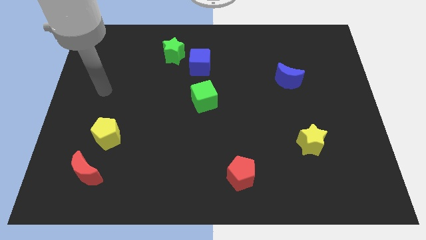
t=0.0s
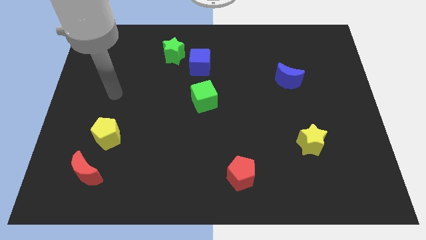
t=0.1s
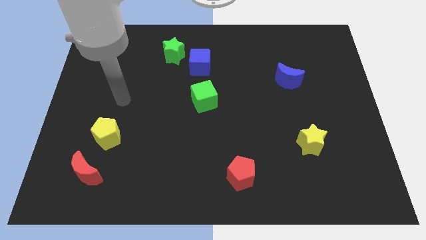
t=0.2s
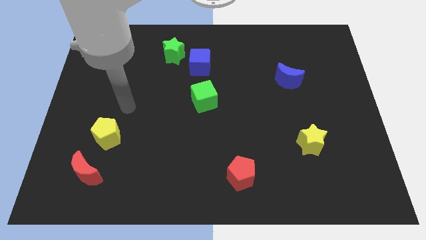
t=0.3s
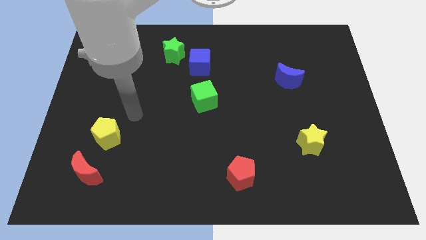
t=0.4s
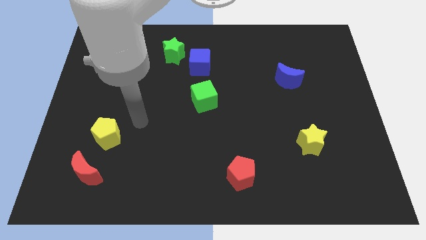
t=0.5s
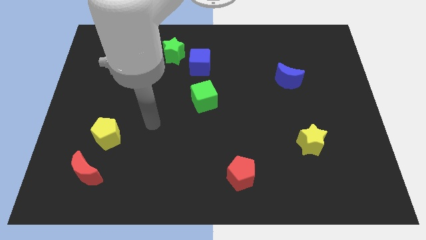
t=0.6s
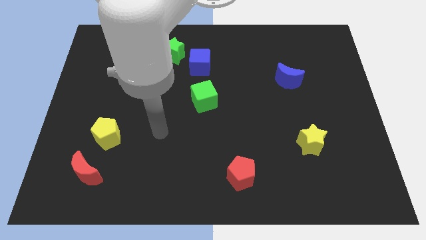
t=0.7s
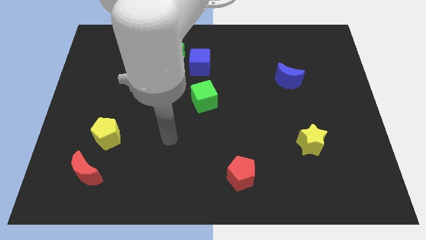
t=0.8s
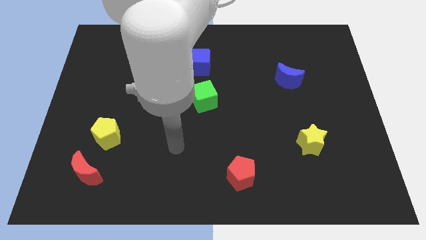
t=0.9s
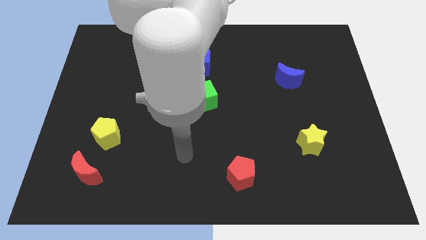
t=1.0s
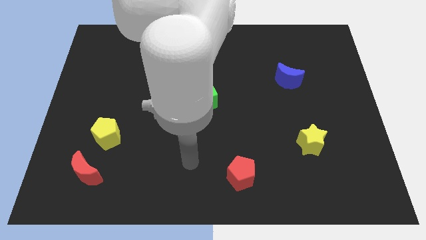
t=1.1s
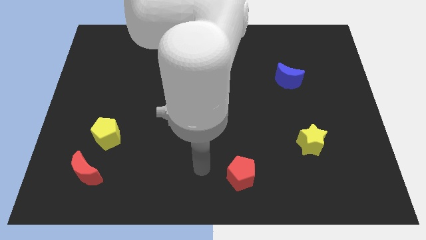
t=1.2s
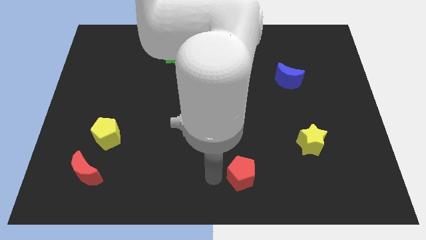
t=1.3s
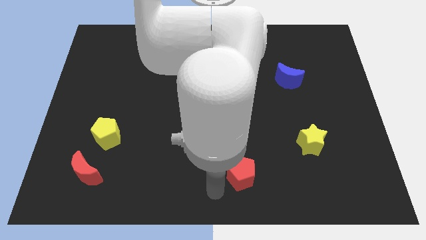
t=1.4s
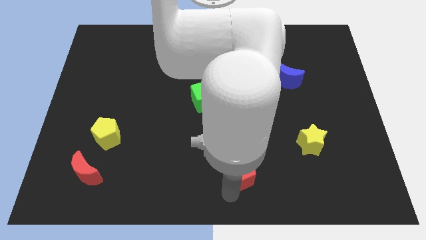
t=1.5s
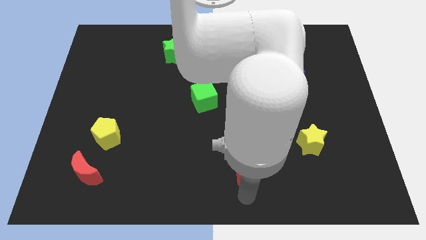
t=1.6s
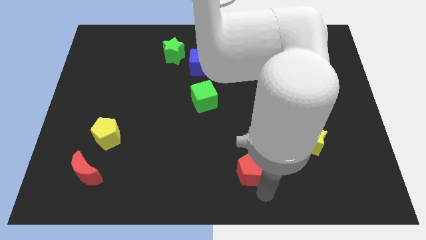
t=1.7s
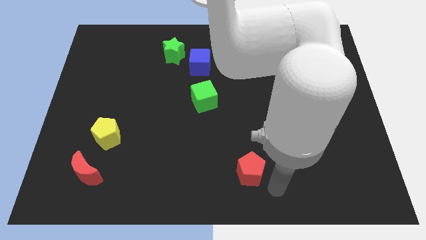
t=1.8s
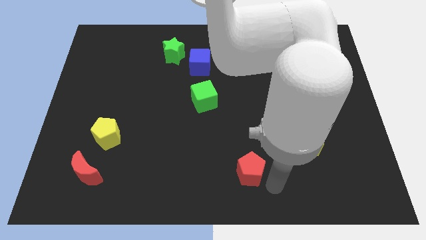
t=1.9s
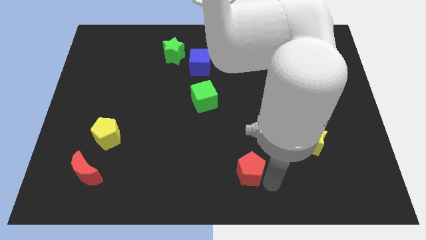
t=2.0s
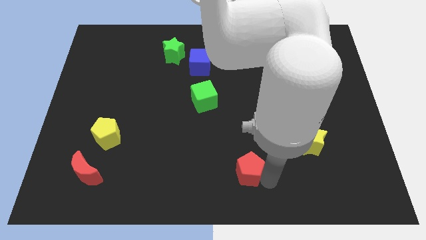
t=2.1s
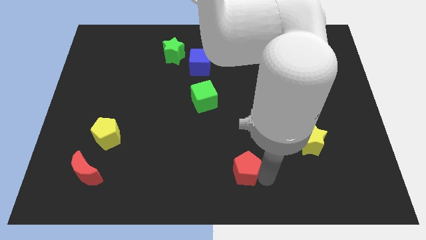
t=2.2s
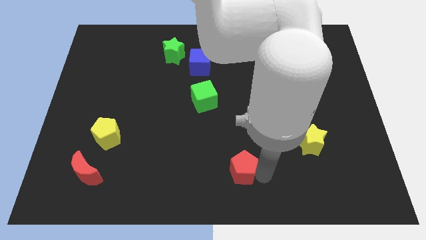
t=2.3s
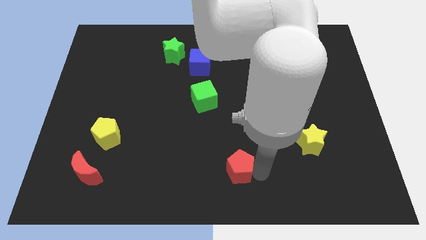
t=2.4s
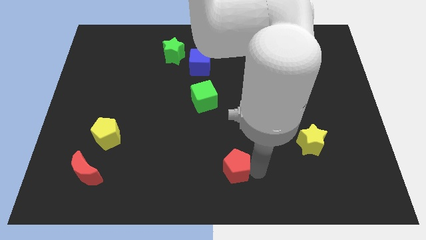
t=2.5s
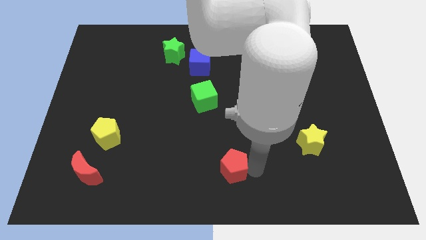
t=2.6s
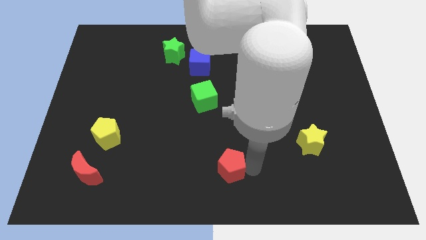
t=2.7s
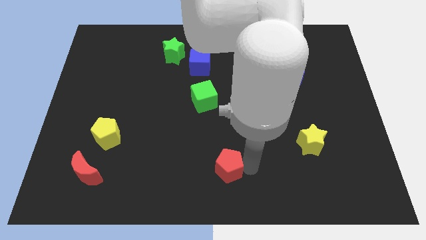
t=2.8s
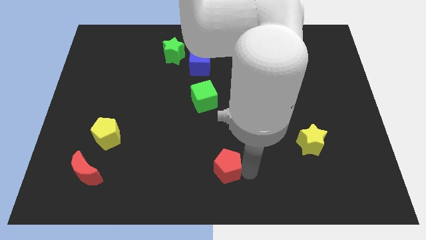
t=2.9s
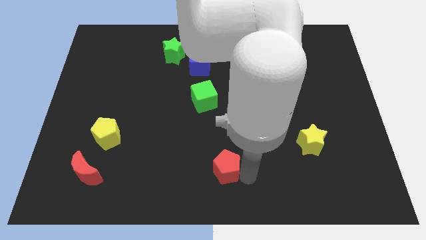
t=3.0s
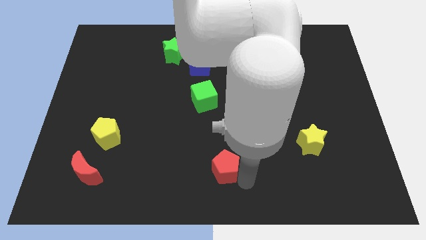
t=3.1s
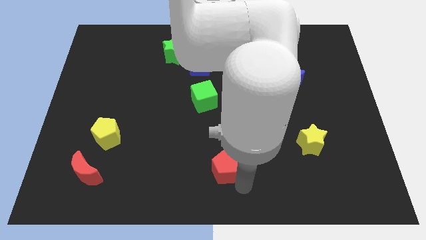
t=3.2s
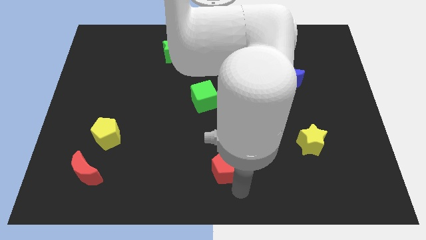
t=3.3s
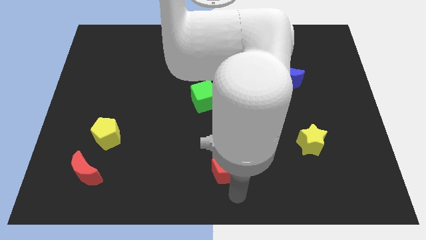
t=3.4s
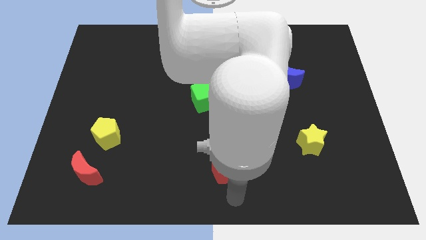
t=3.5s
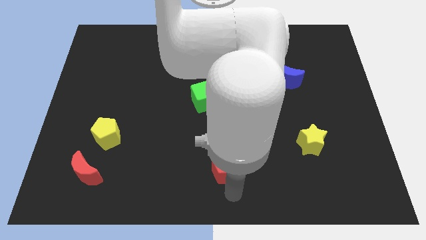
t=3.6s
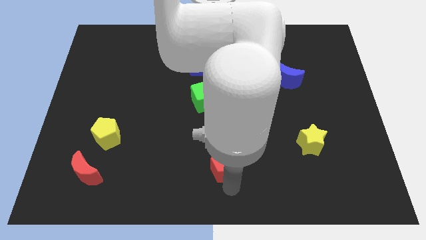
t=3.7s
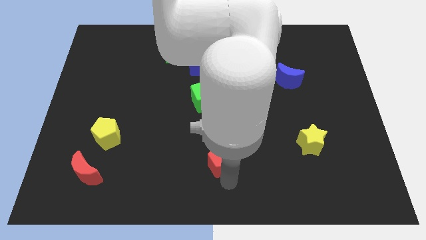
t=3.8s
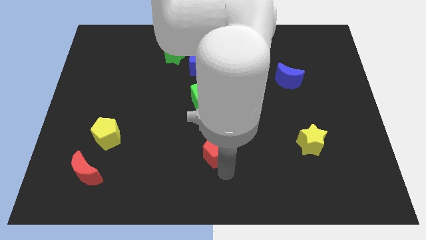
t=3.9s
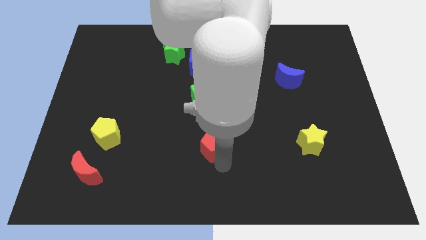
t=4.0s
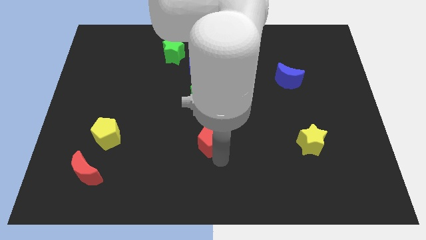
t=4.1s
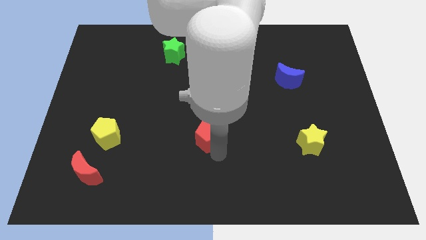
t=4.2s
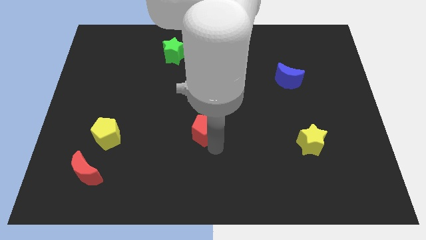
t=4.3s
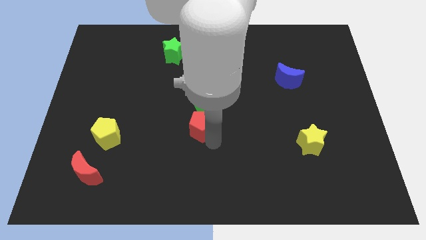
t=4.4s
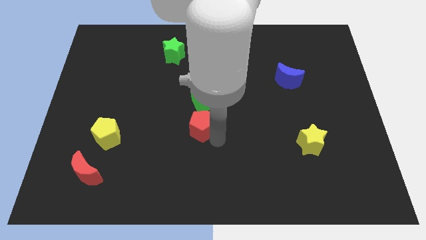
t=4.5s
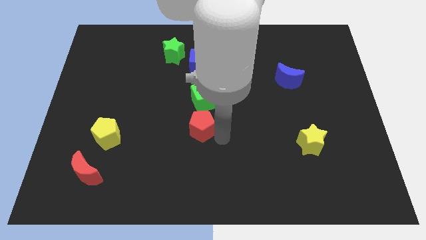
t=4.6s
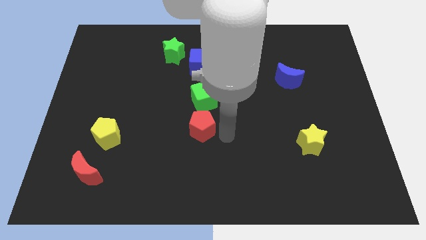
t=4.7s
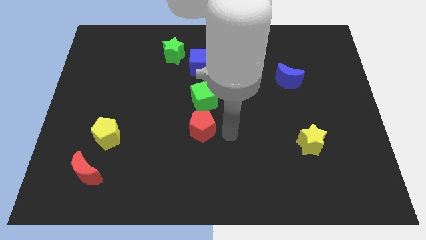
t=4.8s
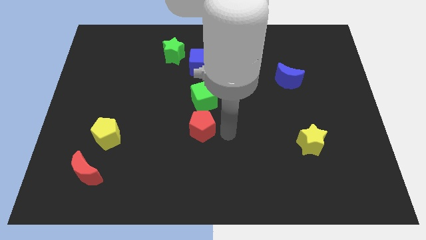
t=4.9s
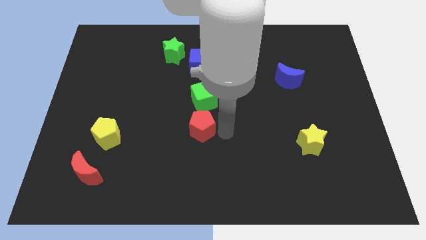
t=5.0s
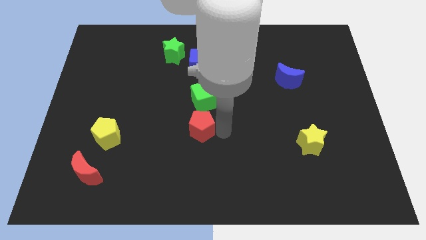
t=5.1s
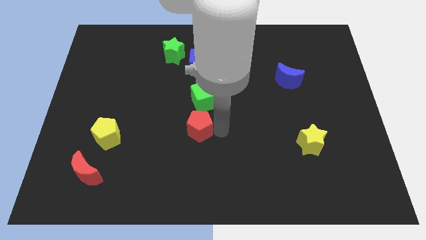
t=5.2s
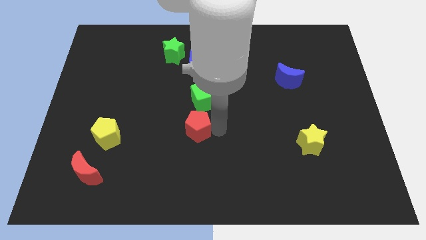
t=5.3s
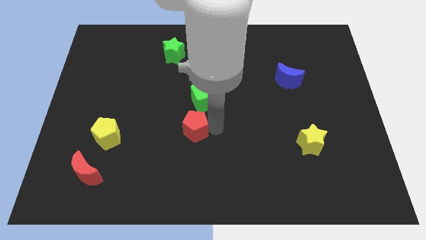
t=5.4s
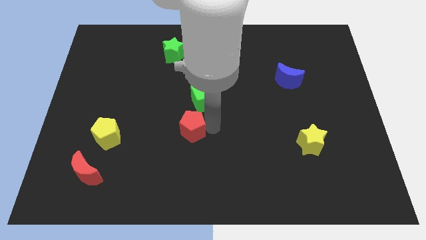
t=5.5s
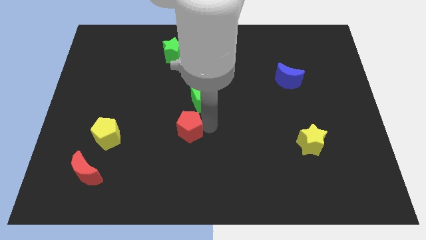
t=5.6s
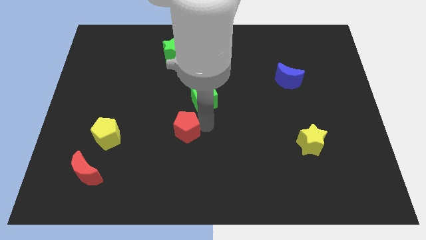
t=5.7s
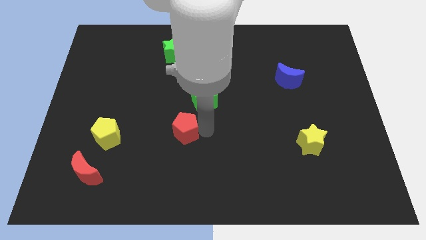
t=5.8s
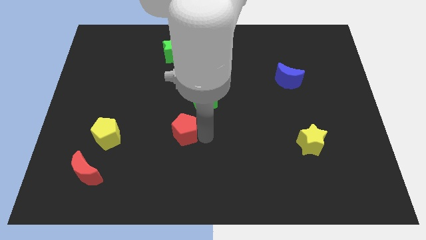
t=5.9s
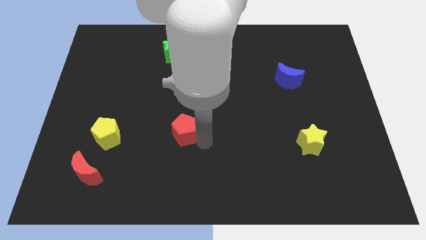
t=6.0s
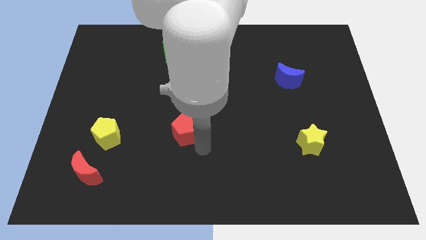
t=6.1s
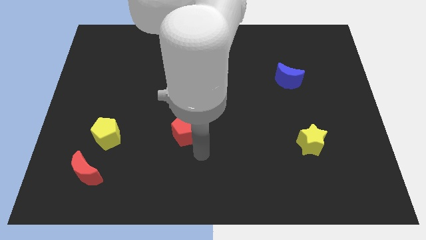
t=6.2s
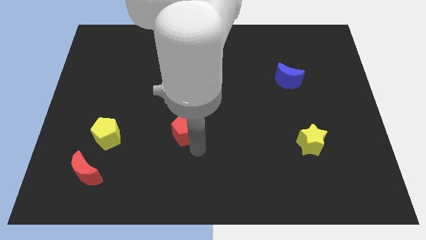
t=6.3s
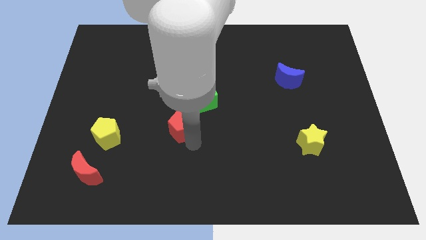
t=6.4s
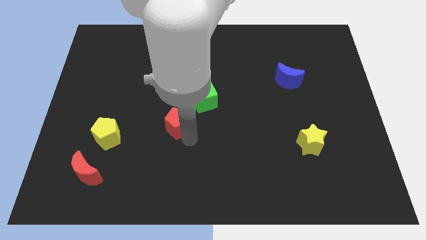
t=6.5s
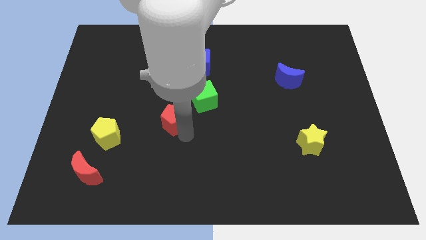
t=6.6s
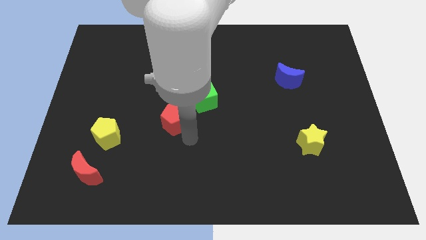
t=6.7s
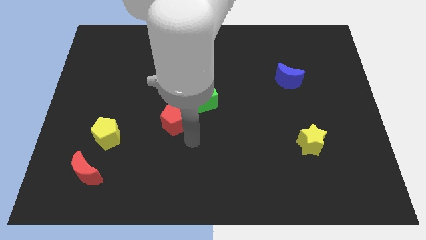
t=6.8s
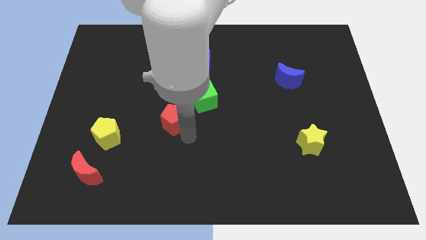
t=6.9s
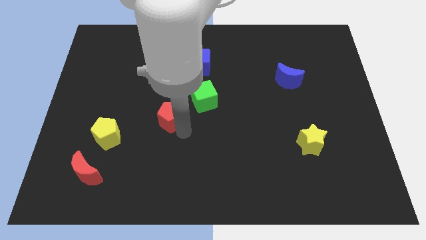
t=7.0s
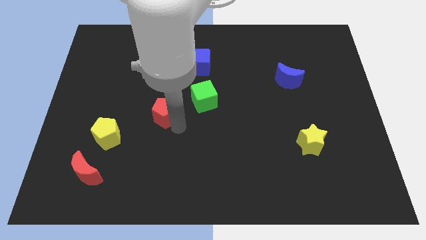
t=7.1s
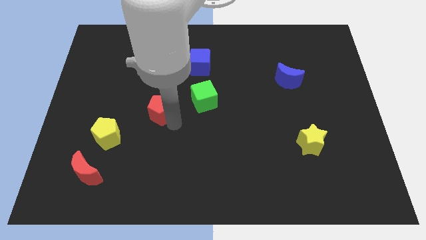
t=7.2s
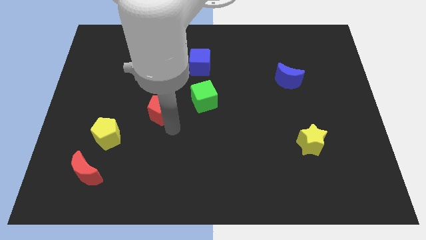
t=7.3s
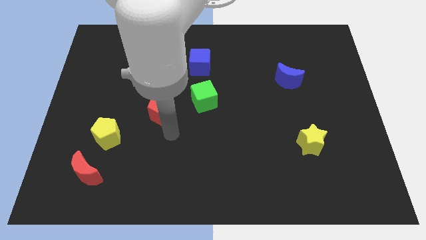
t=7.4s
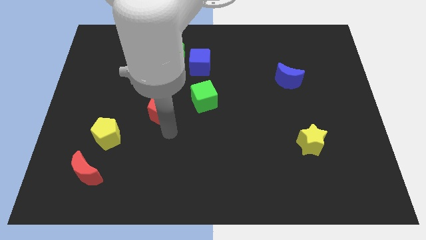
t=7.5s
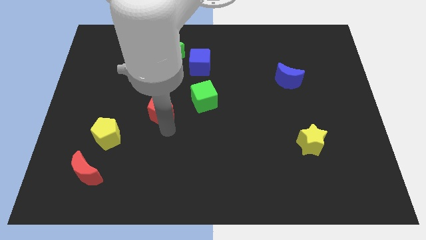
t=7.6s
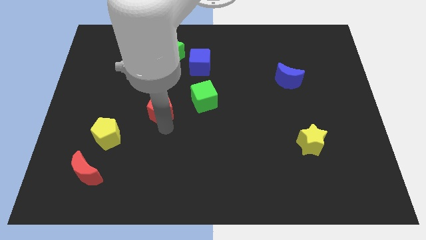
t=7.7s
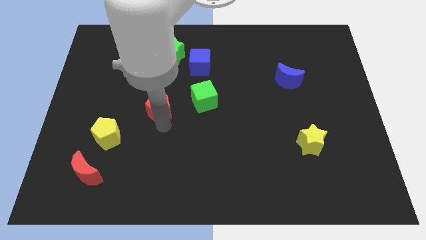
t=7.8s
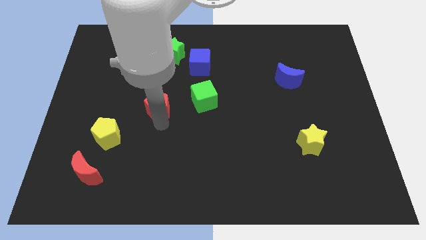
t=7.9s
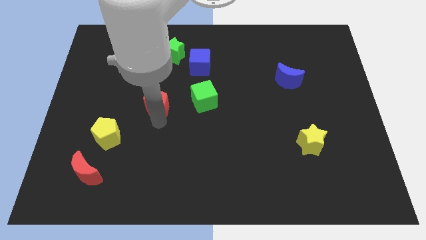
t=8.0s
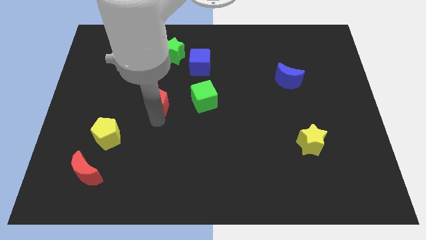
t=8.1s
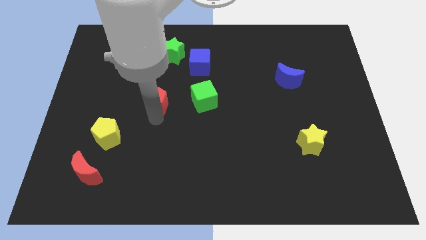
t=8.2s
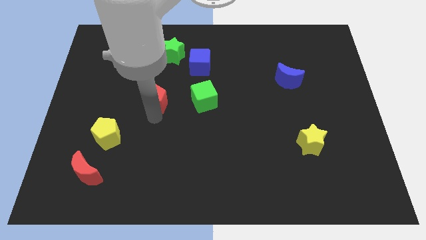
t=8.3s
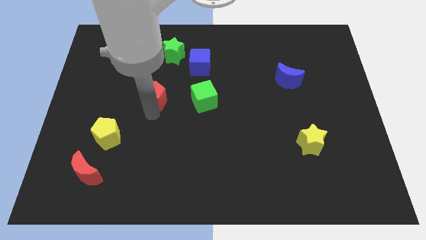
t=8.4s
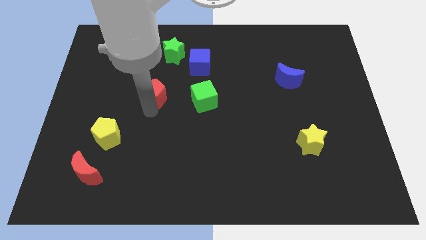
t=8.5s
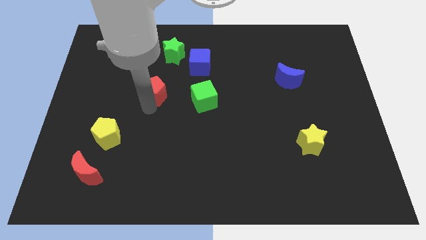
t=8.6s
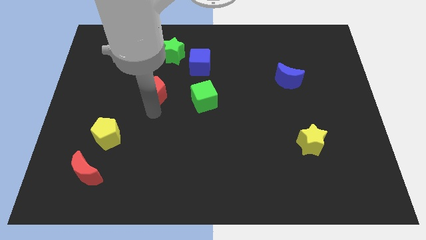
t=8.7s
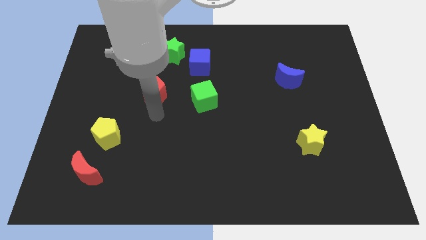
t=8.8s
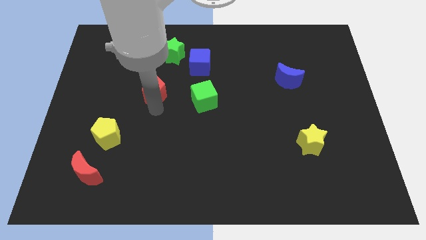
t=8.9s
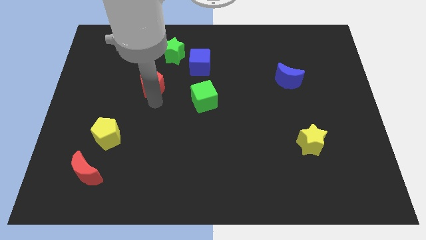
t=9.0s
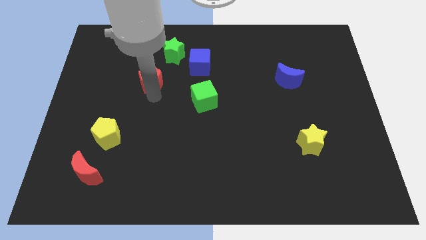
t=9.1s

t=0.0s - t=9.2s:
slide the red pentagon to the bottom left side of the green star
